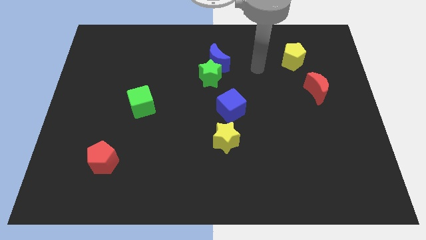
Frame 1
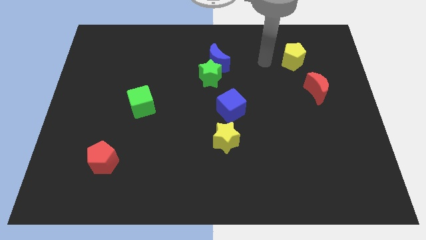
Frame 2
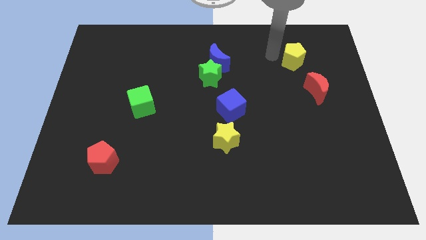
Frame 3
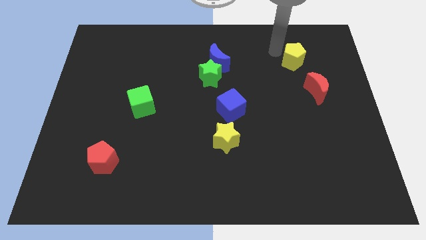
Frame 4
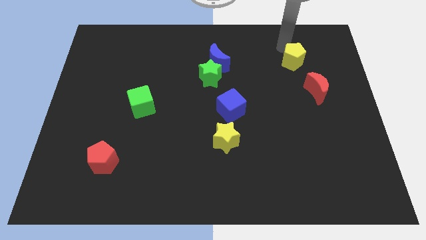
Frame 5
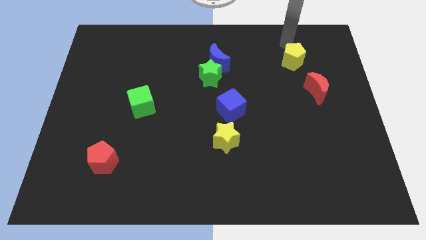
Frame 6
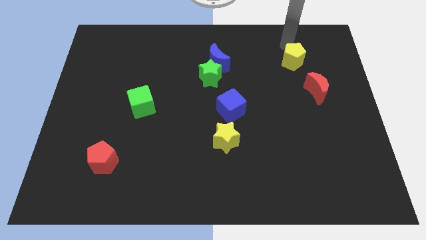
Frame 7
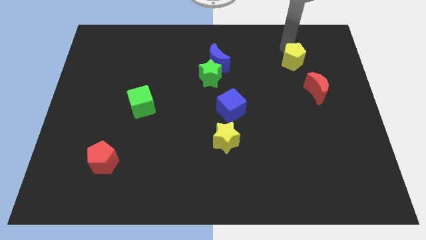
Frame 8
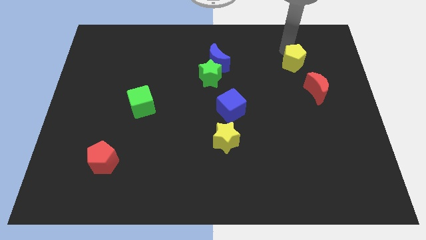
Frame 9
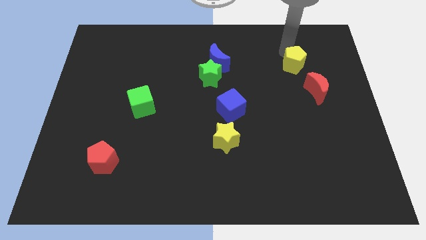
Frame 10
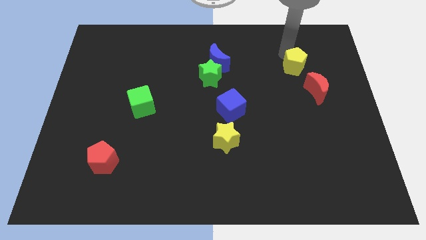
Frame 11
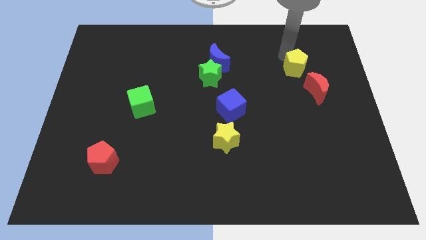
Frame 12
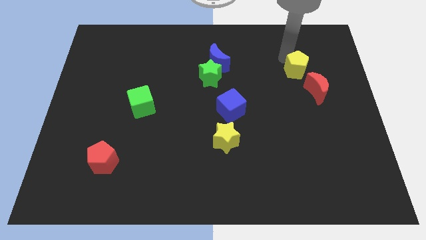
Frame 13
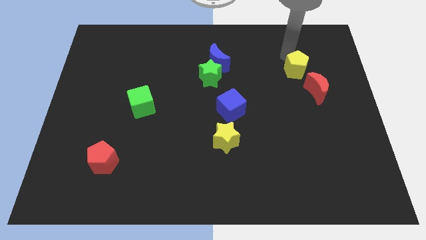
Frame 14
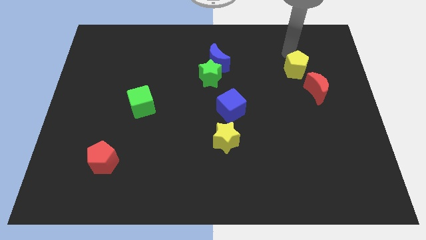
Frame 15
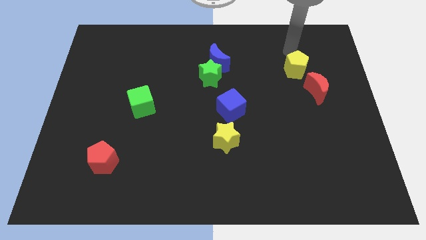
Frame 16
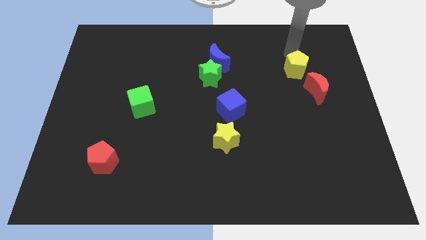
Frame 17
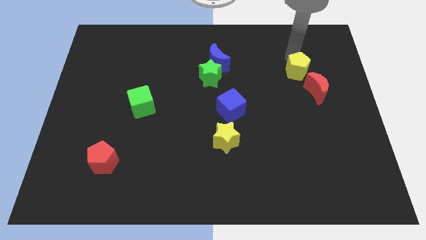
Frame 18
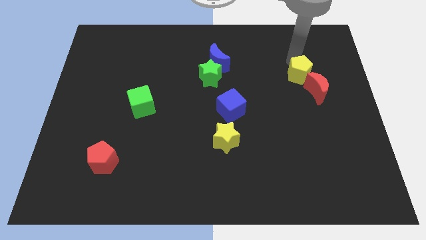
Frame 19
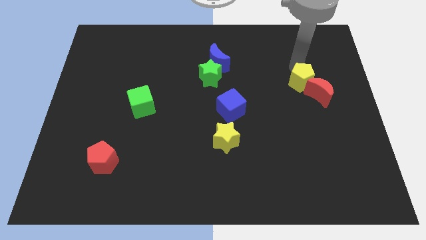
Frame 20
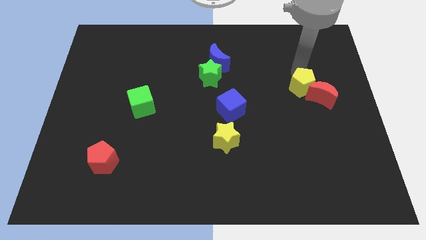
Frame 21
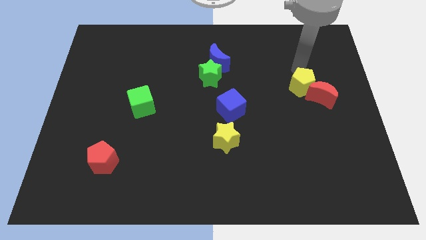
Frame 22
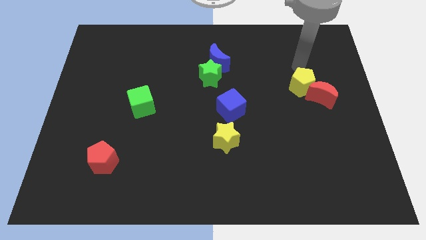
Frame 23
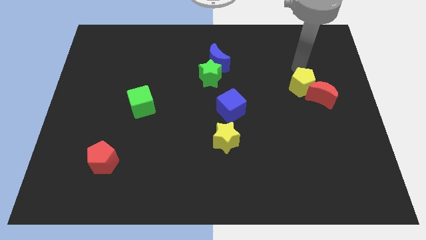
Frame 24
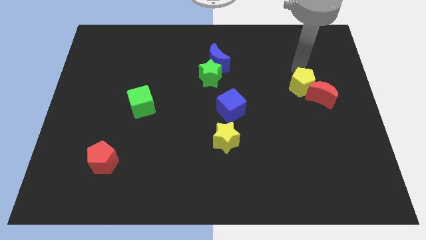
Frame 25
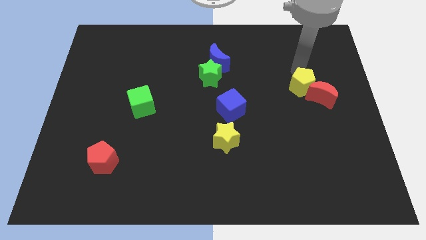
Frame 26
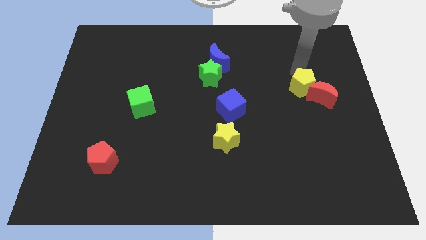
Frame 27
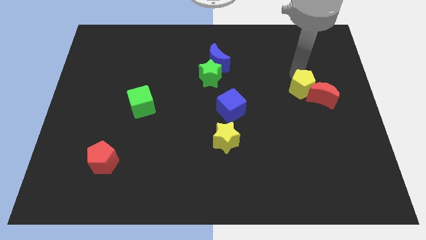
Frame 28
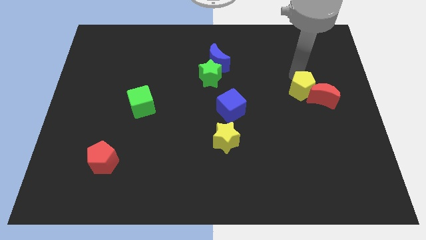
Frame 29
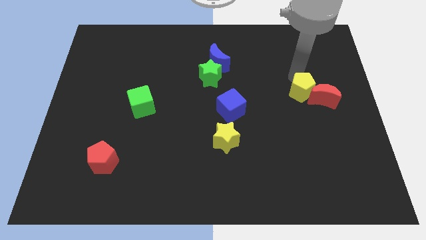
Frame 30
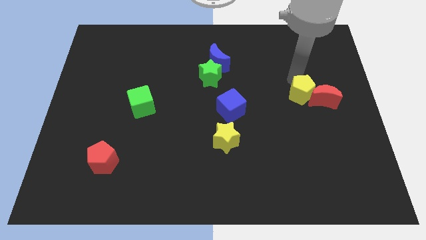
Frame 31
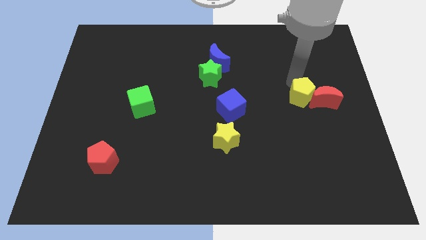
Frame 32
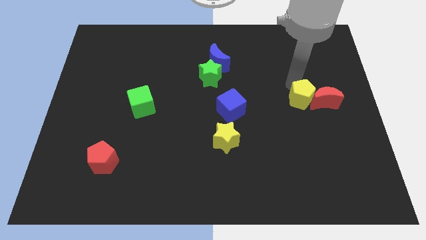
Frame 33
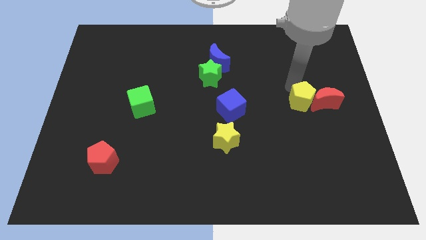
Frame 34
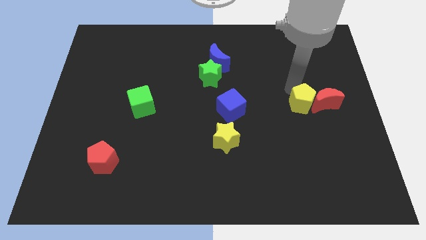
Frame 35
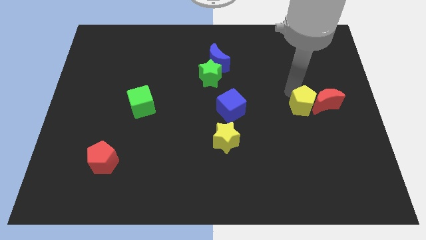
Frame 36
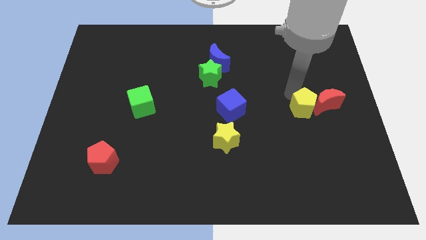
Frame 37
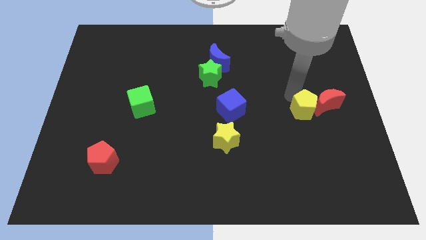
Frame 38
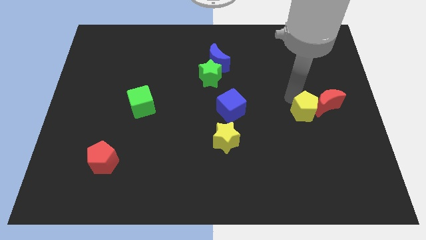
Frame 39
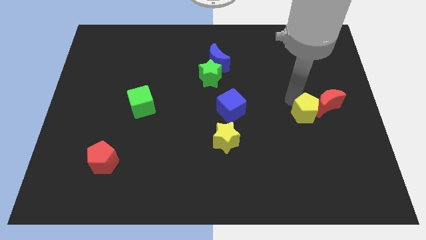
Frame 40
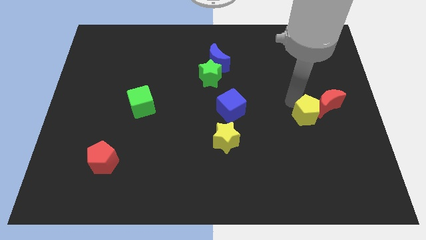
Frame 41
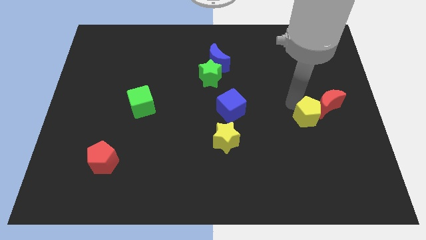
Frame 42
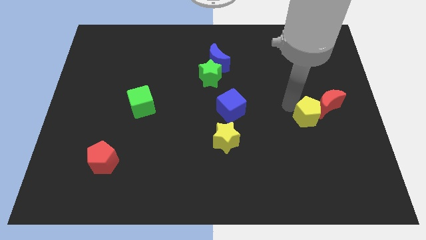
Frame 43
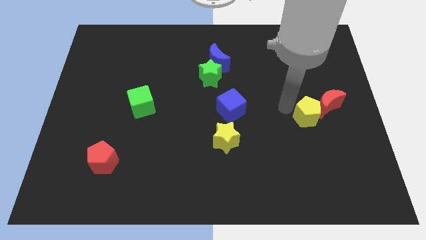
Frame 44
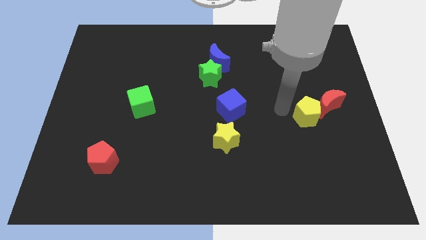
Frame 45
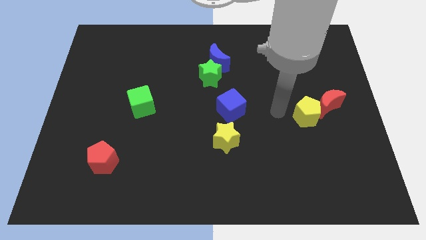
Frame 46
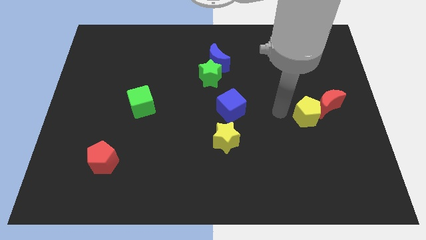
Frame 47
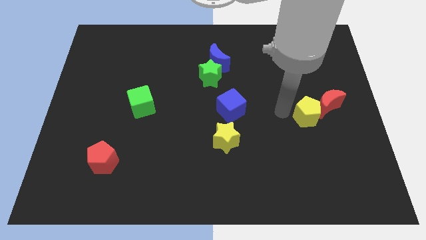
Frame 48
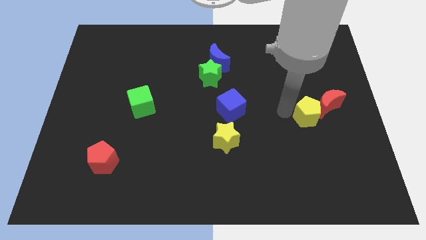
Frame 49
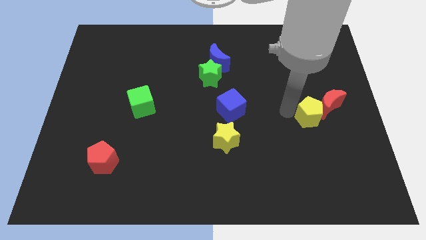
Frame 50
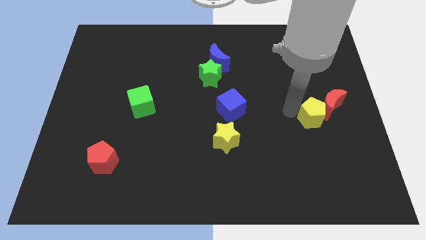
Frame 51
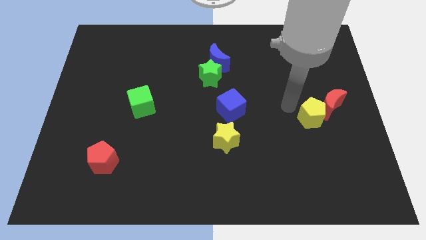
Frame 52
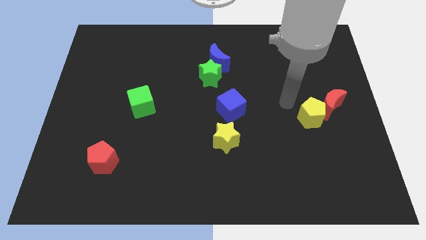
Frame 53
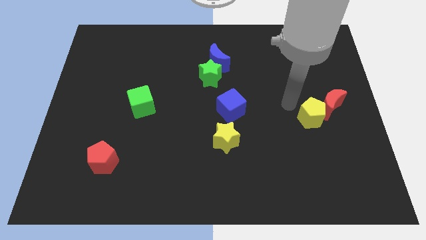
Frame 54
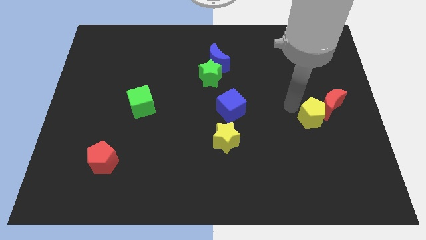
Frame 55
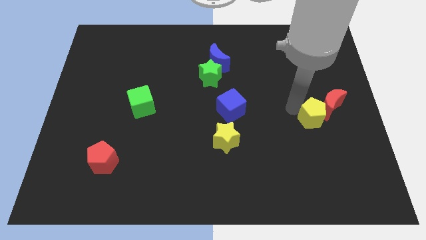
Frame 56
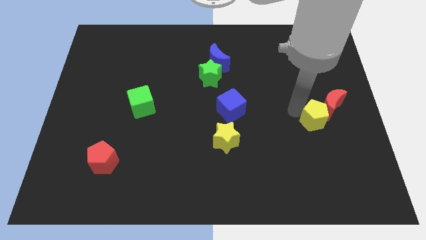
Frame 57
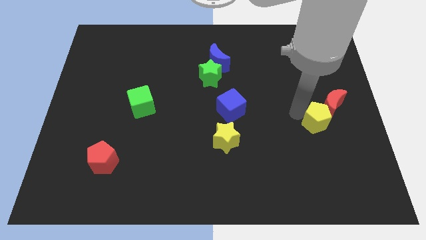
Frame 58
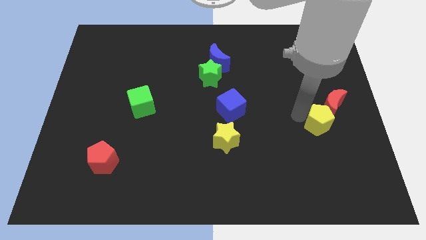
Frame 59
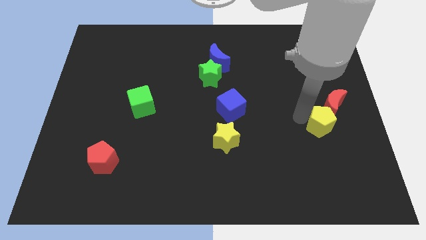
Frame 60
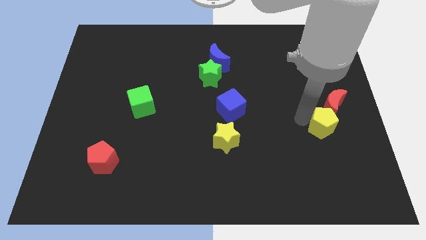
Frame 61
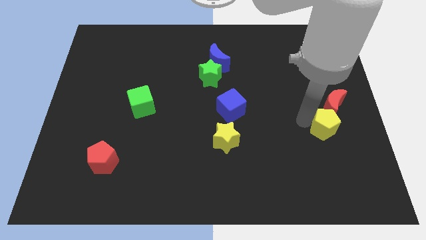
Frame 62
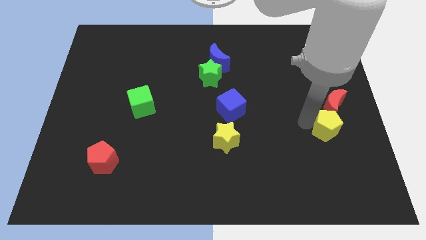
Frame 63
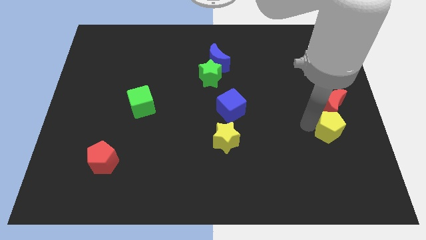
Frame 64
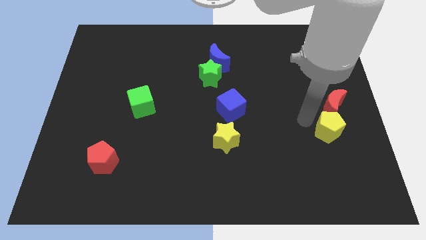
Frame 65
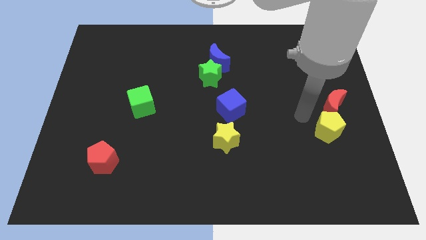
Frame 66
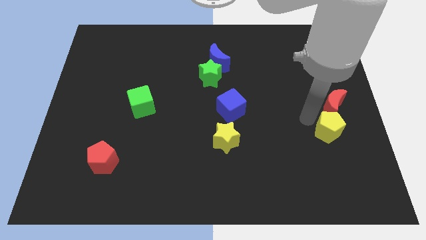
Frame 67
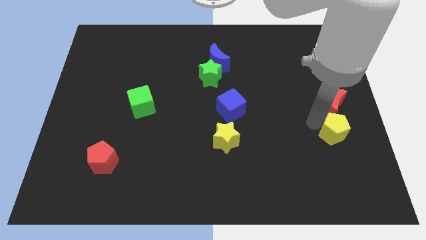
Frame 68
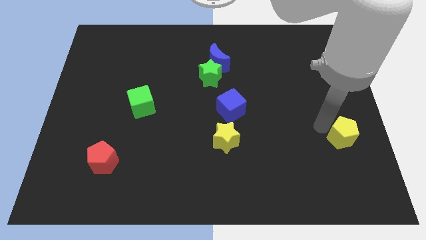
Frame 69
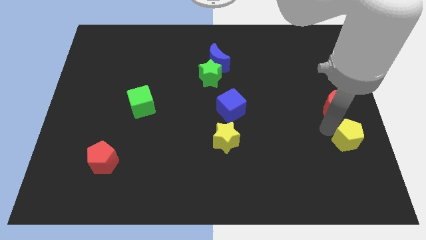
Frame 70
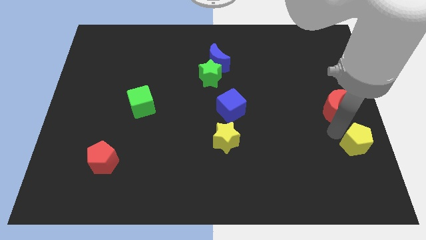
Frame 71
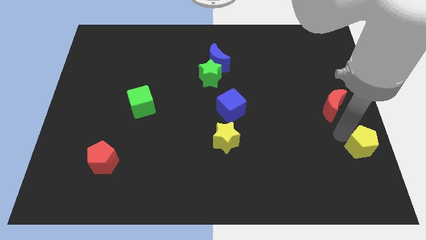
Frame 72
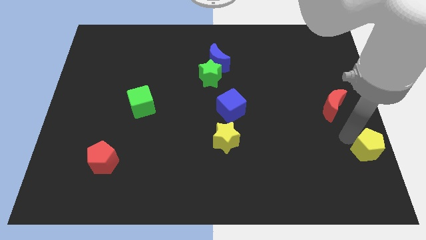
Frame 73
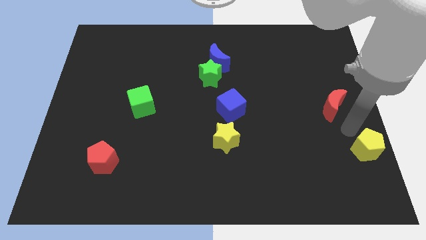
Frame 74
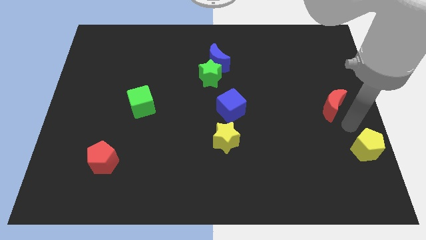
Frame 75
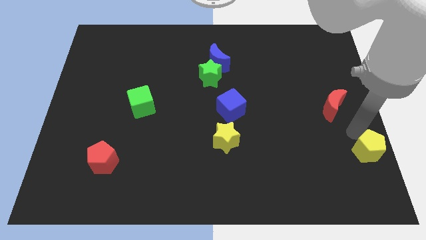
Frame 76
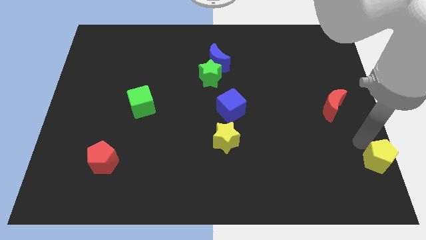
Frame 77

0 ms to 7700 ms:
push the yellow pentagon to the bottom right of the board
